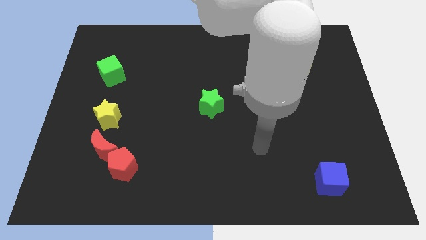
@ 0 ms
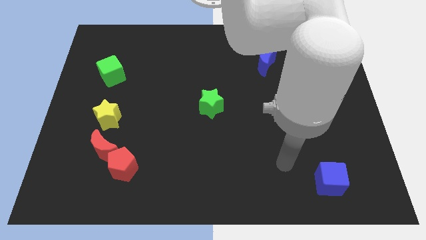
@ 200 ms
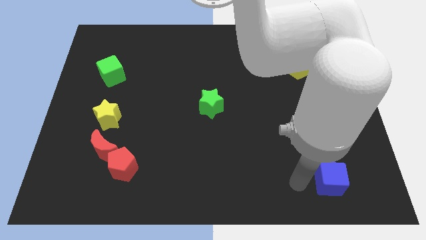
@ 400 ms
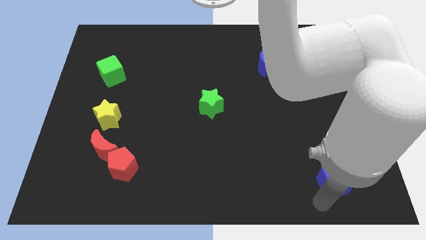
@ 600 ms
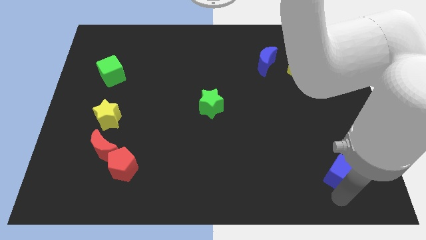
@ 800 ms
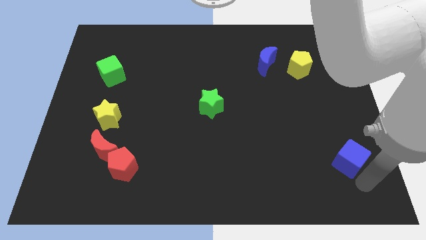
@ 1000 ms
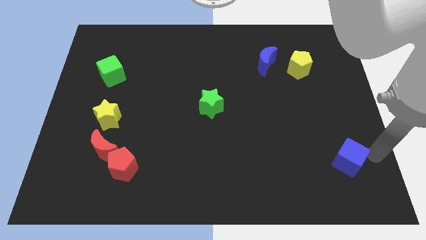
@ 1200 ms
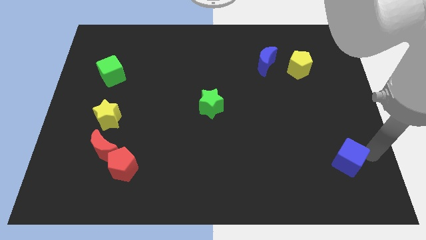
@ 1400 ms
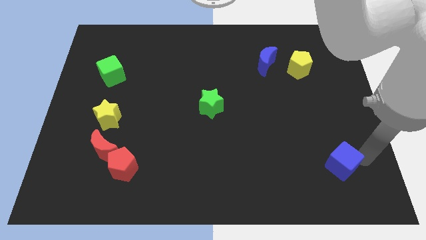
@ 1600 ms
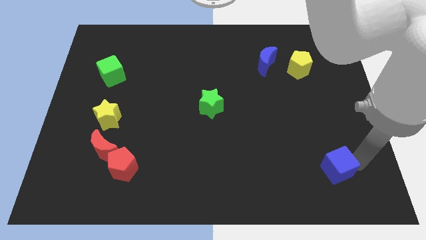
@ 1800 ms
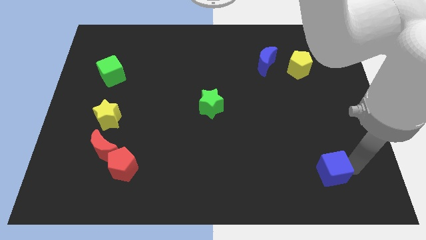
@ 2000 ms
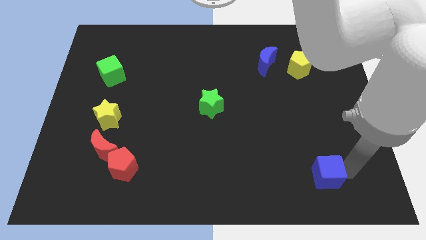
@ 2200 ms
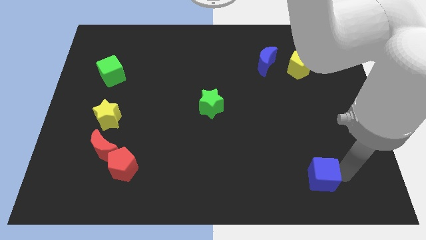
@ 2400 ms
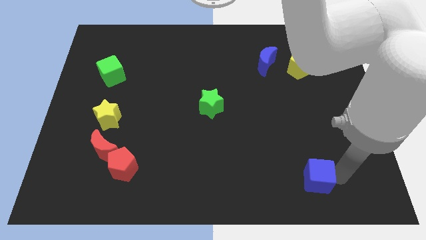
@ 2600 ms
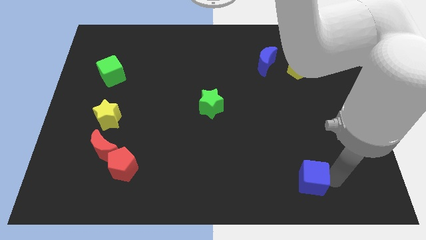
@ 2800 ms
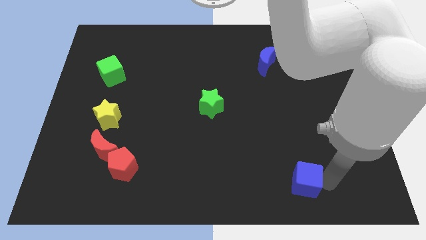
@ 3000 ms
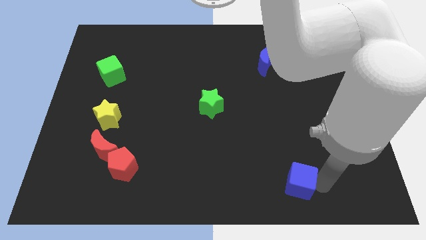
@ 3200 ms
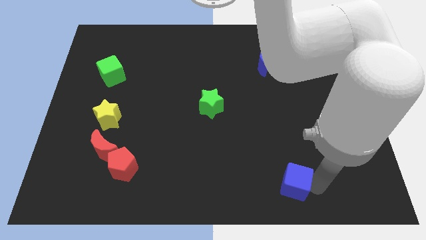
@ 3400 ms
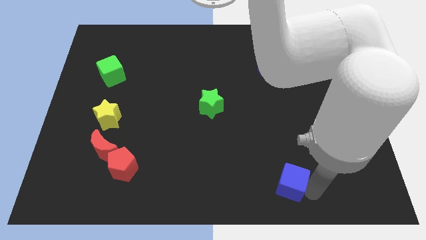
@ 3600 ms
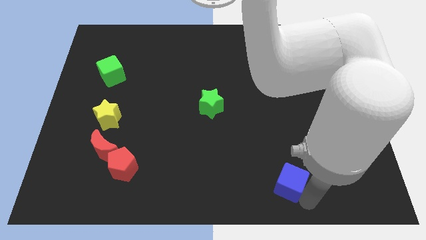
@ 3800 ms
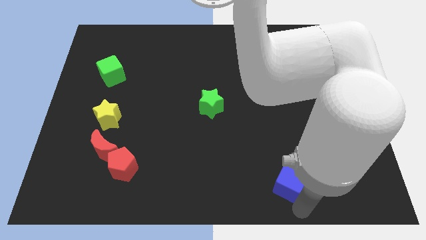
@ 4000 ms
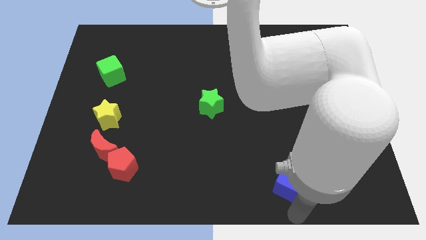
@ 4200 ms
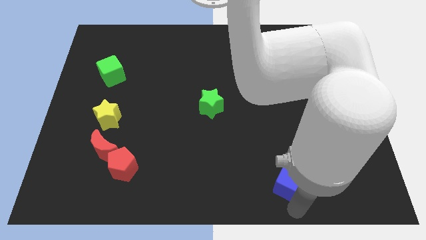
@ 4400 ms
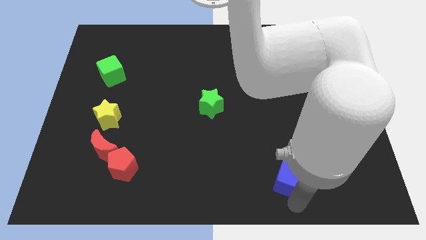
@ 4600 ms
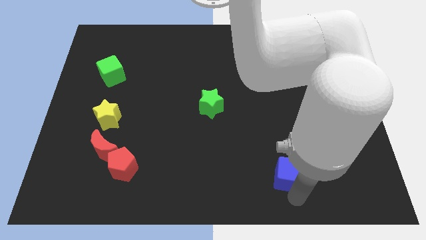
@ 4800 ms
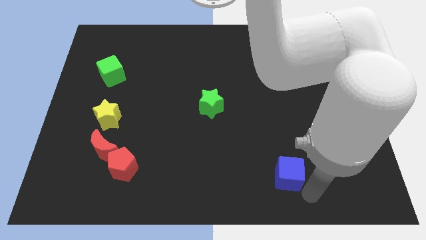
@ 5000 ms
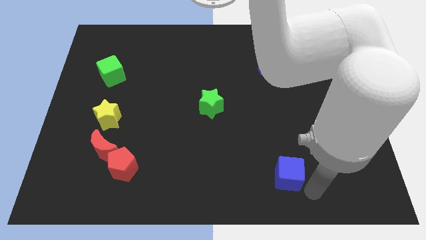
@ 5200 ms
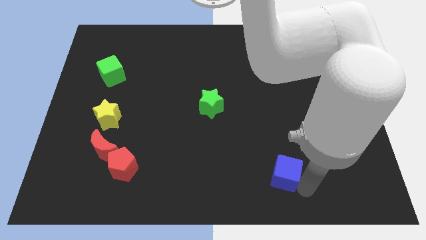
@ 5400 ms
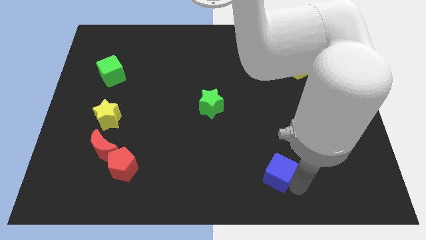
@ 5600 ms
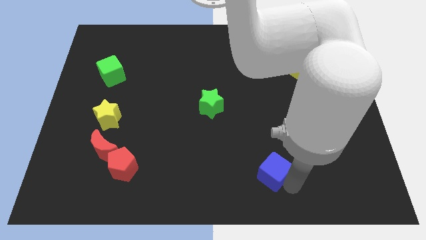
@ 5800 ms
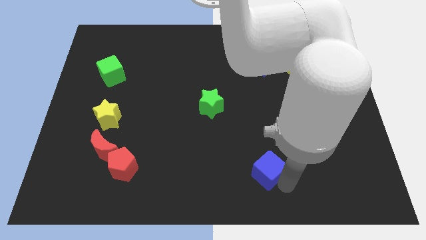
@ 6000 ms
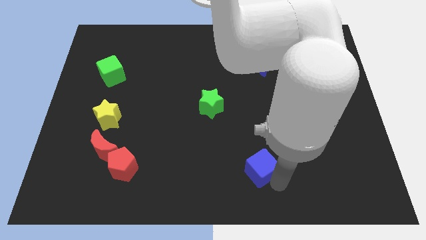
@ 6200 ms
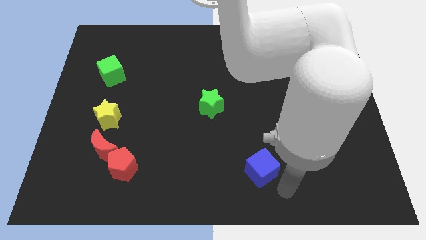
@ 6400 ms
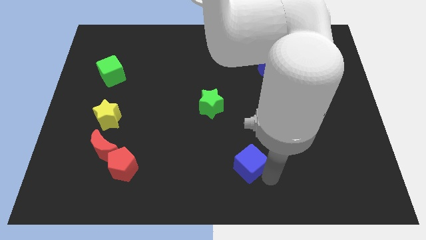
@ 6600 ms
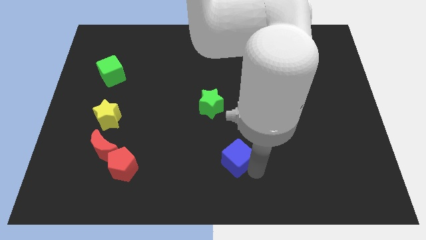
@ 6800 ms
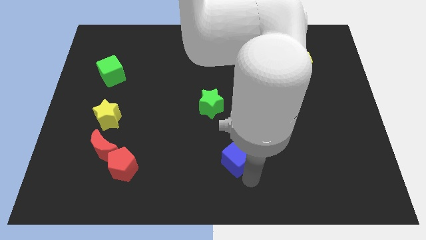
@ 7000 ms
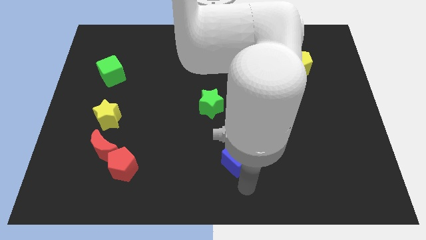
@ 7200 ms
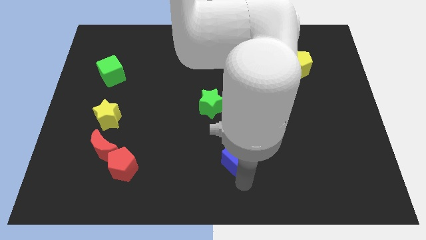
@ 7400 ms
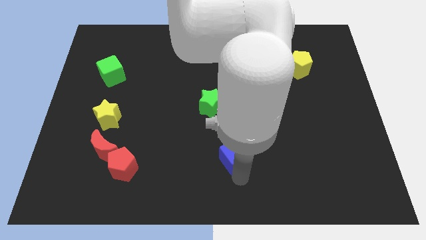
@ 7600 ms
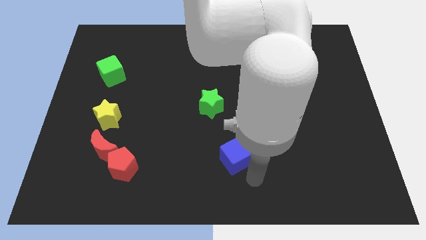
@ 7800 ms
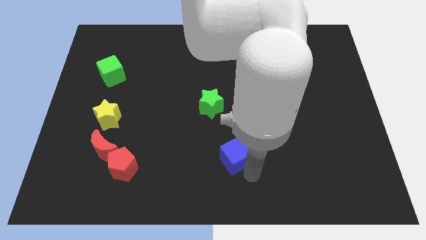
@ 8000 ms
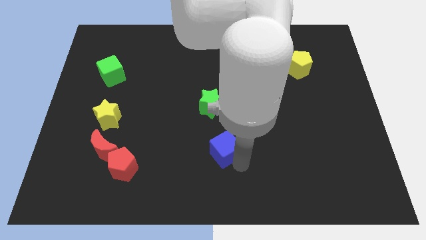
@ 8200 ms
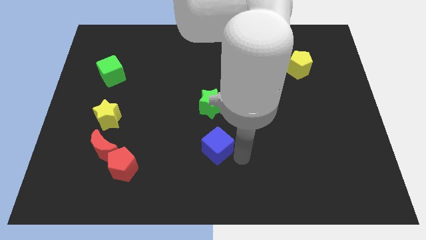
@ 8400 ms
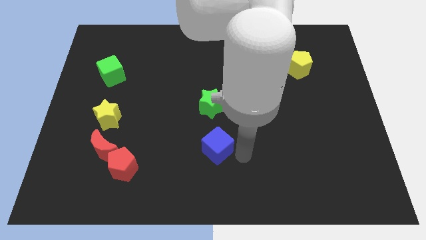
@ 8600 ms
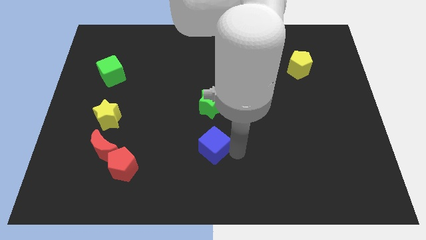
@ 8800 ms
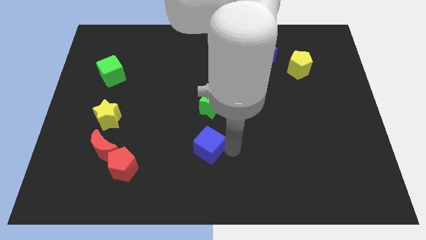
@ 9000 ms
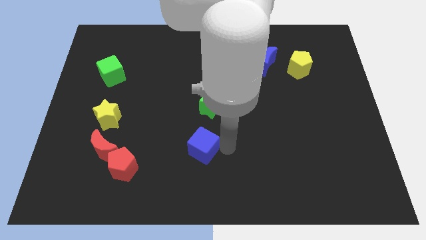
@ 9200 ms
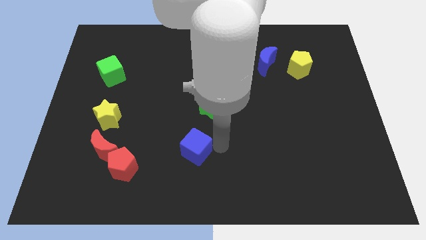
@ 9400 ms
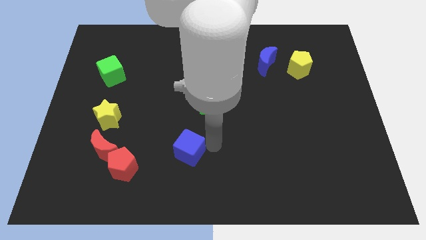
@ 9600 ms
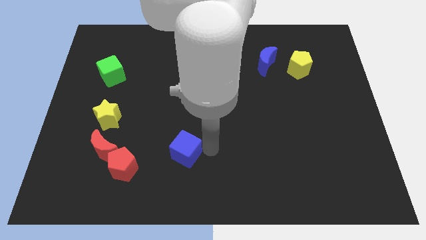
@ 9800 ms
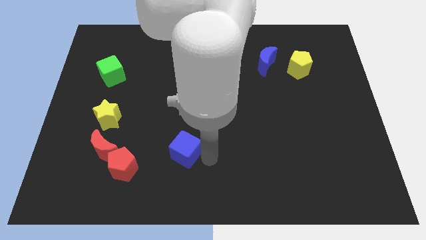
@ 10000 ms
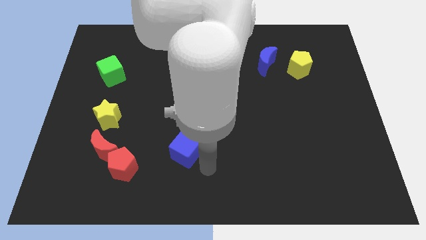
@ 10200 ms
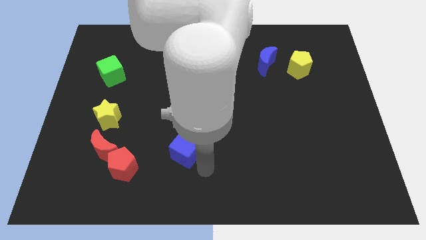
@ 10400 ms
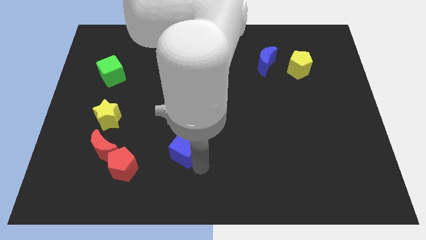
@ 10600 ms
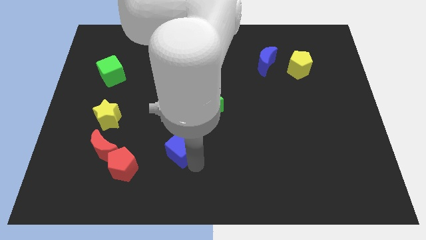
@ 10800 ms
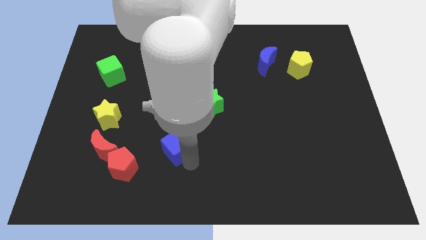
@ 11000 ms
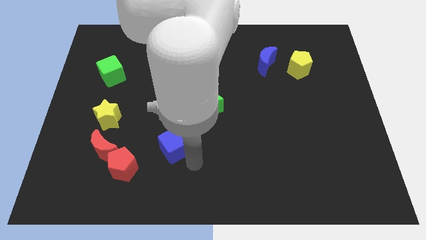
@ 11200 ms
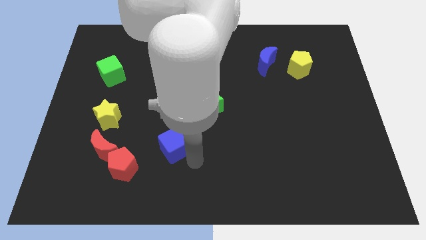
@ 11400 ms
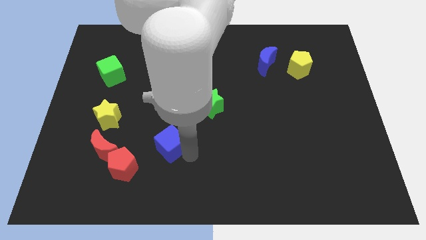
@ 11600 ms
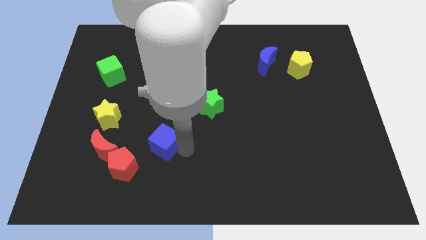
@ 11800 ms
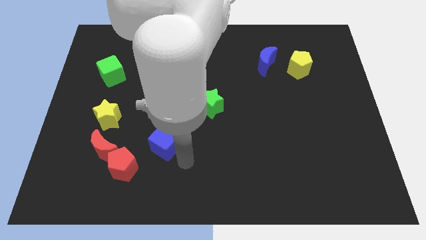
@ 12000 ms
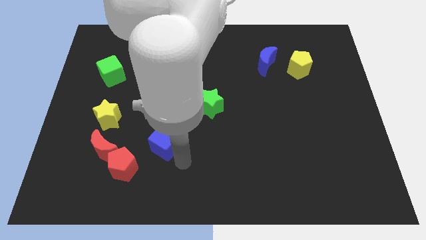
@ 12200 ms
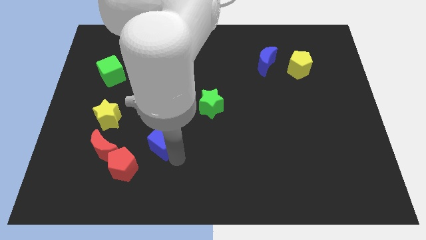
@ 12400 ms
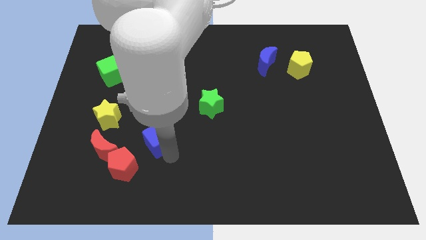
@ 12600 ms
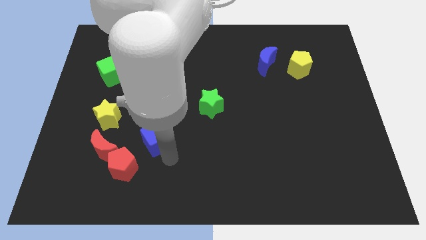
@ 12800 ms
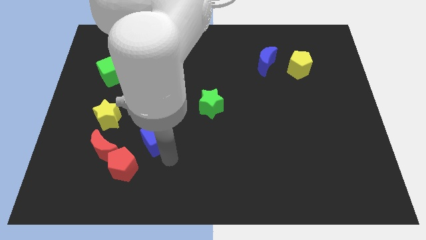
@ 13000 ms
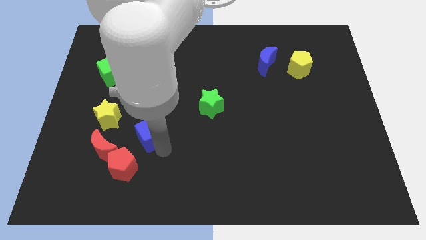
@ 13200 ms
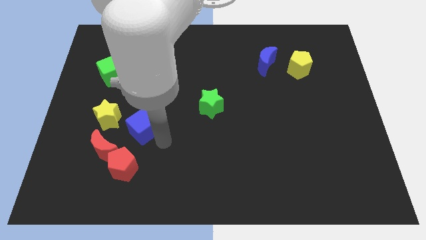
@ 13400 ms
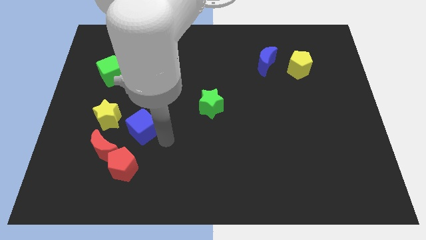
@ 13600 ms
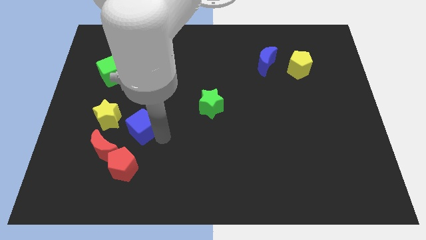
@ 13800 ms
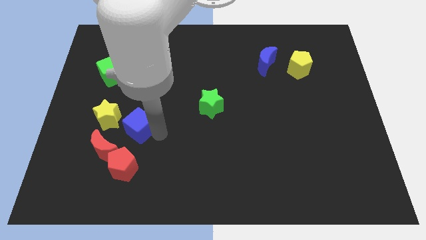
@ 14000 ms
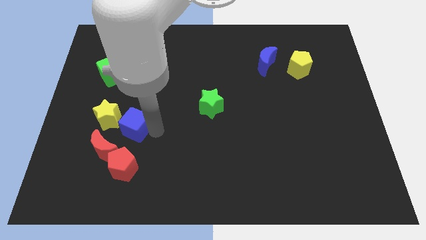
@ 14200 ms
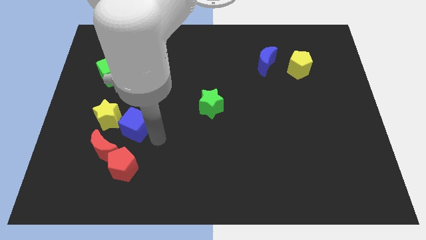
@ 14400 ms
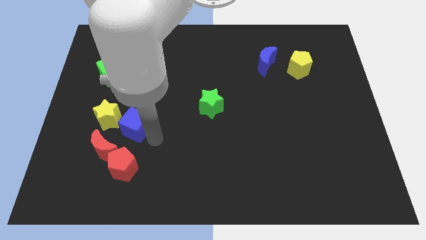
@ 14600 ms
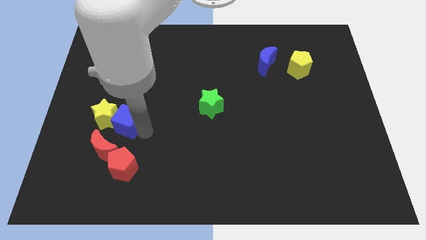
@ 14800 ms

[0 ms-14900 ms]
put the blue cube to the yellow star
